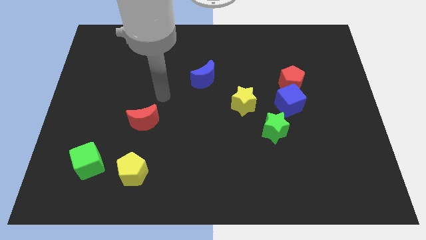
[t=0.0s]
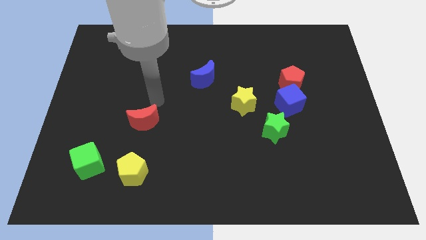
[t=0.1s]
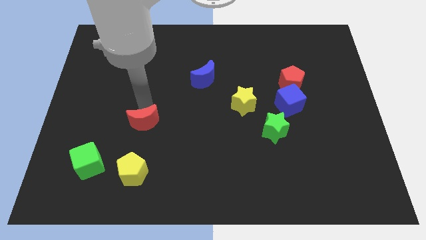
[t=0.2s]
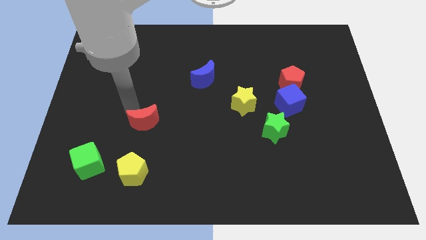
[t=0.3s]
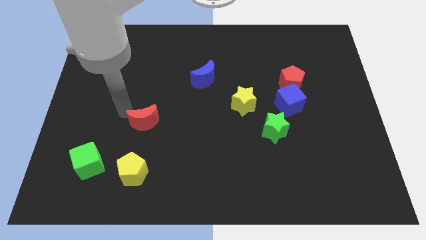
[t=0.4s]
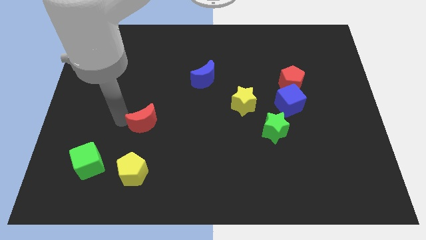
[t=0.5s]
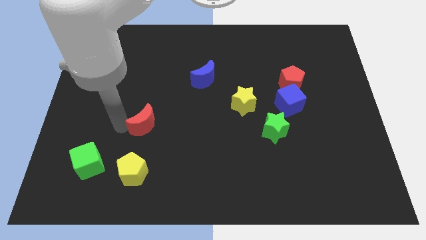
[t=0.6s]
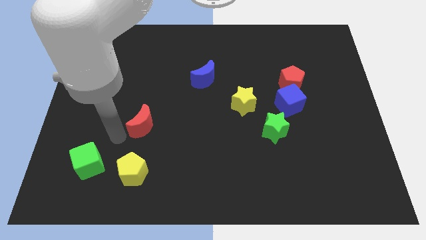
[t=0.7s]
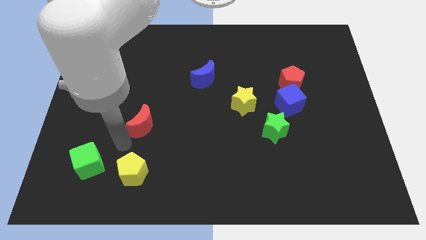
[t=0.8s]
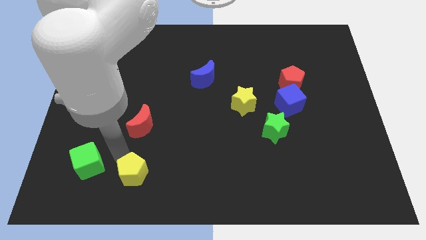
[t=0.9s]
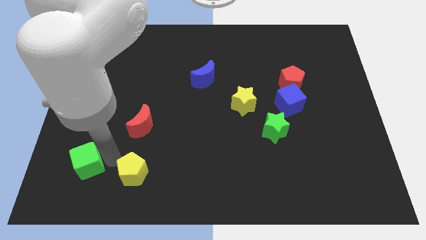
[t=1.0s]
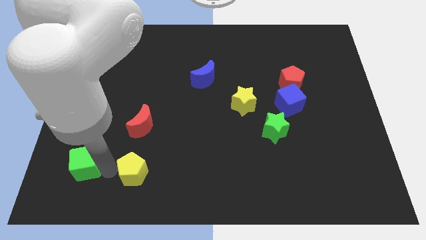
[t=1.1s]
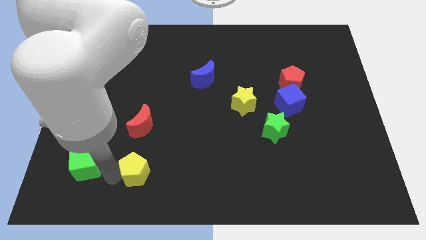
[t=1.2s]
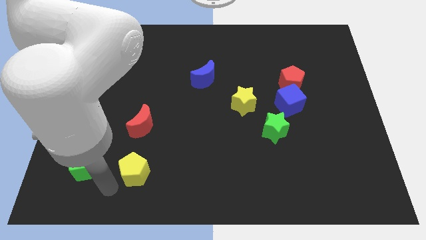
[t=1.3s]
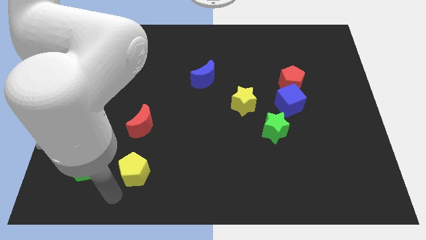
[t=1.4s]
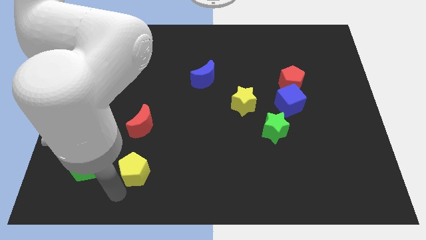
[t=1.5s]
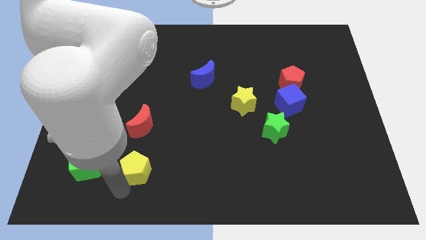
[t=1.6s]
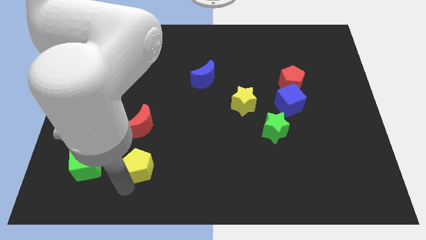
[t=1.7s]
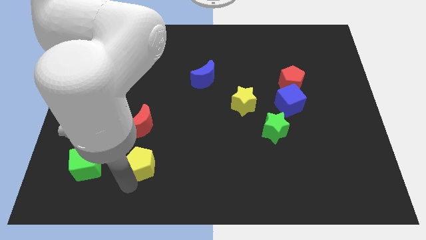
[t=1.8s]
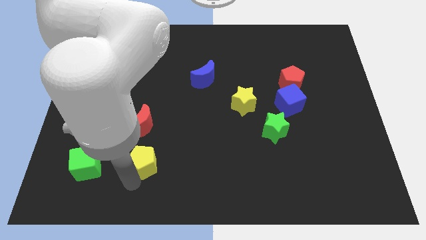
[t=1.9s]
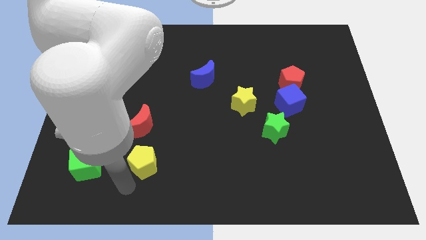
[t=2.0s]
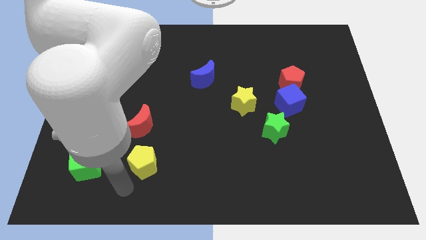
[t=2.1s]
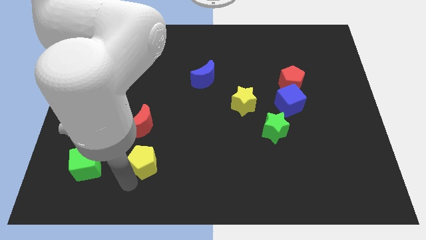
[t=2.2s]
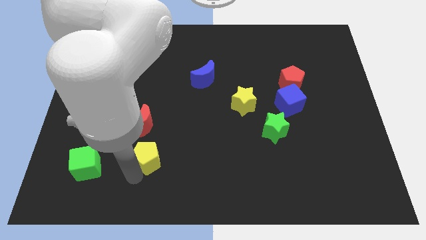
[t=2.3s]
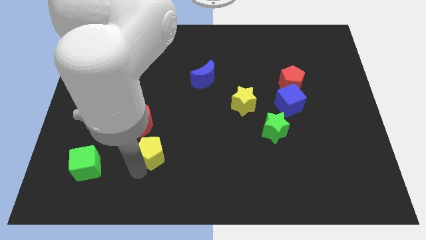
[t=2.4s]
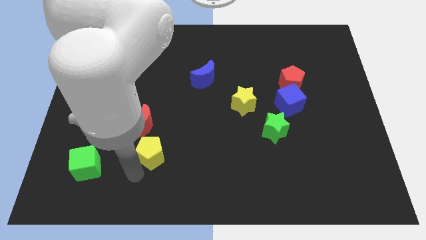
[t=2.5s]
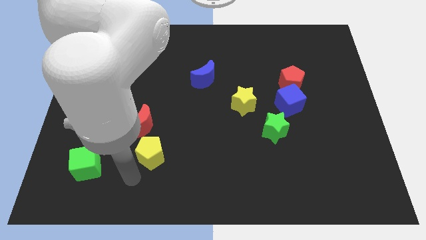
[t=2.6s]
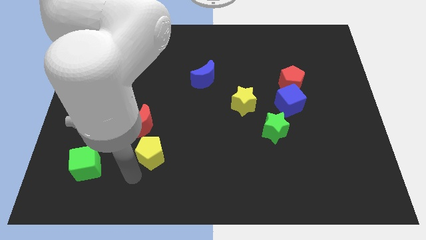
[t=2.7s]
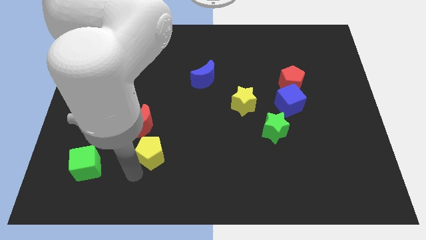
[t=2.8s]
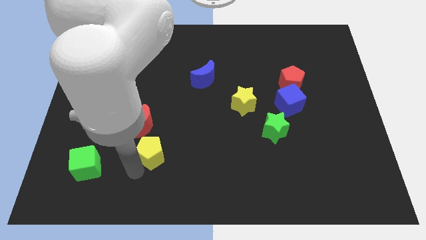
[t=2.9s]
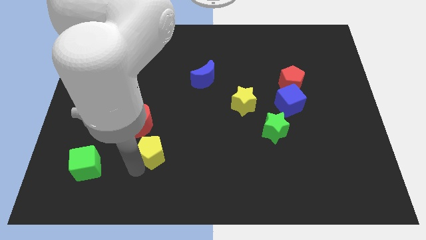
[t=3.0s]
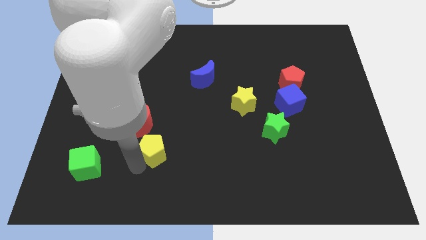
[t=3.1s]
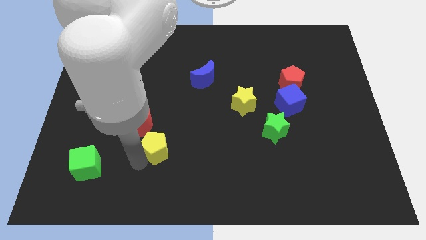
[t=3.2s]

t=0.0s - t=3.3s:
slightly push the yellow pentagon upwards and to the right

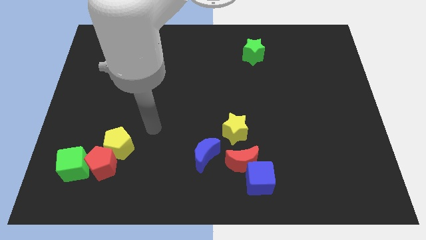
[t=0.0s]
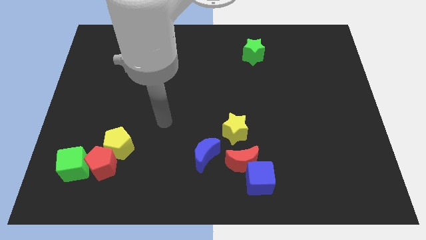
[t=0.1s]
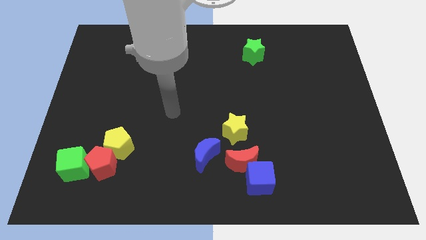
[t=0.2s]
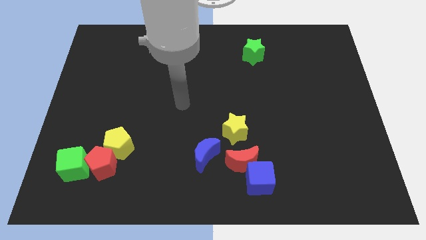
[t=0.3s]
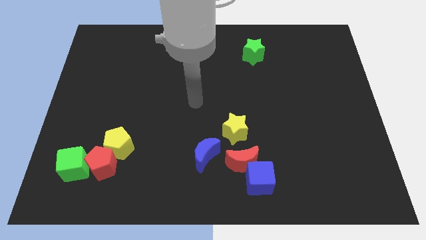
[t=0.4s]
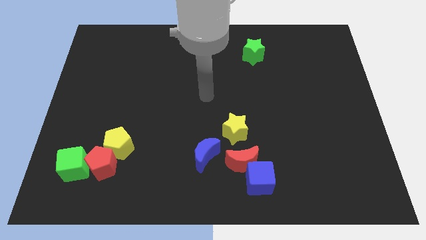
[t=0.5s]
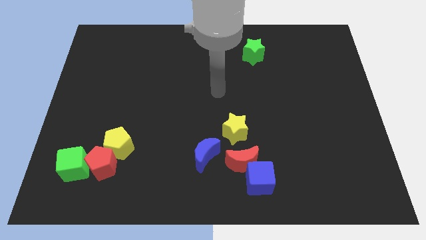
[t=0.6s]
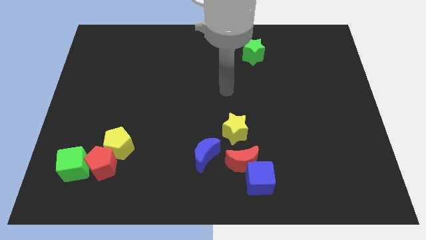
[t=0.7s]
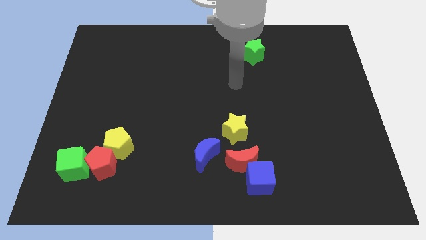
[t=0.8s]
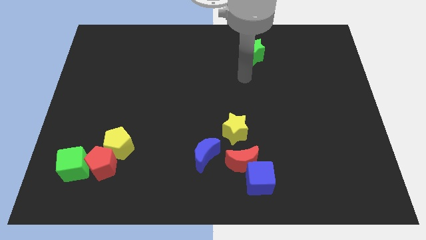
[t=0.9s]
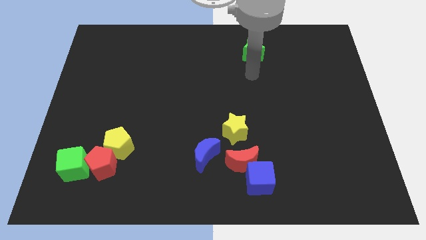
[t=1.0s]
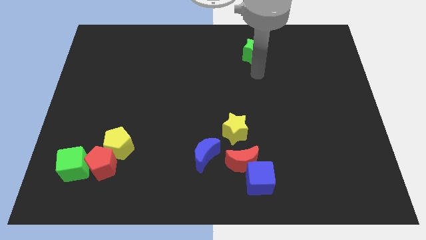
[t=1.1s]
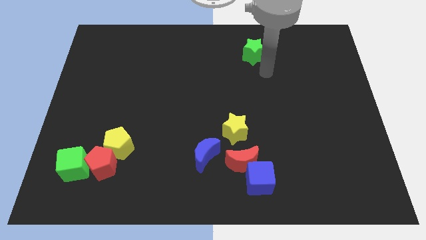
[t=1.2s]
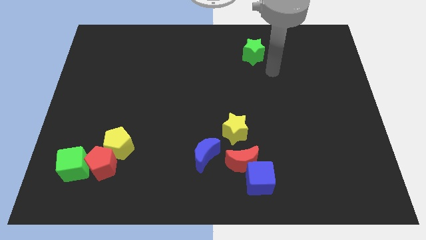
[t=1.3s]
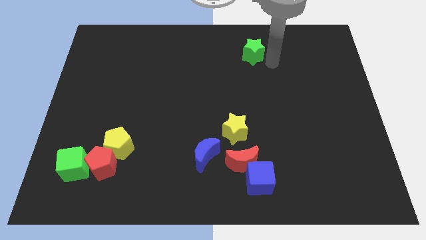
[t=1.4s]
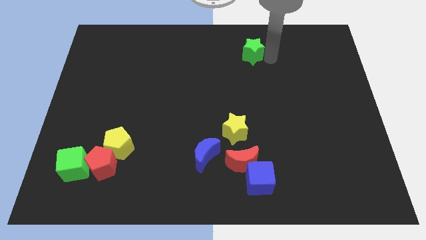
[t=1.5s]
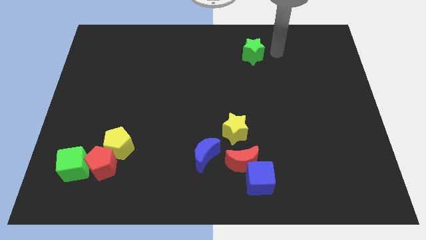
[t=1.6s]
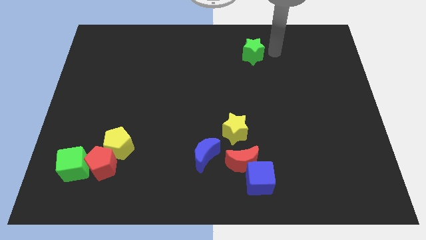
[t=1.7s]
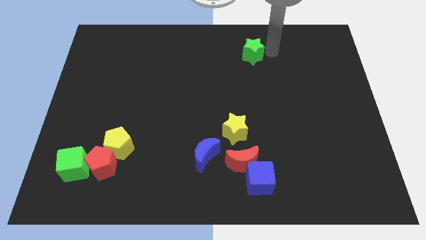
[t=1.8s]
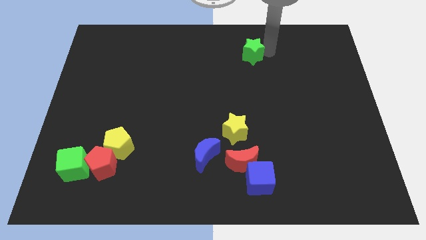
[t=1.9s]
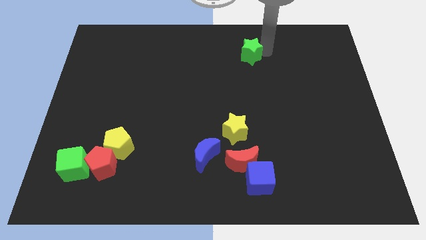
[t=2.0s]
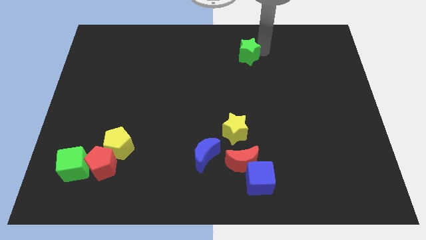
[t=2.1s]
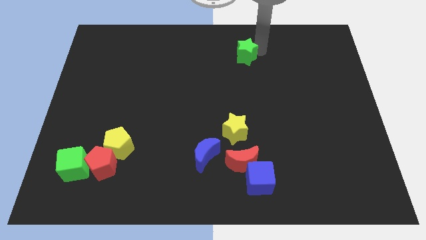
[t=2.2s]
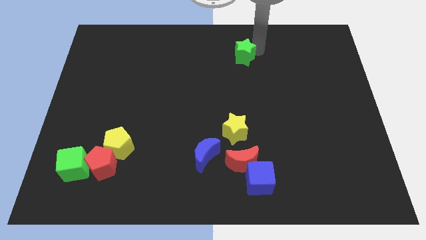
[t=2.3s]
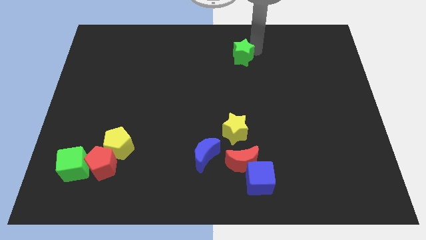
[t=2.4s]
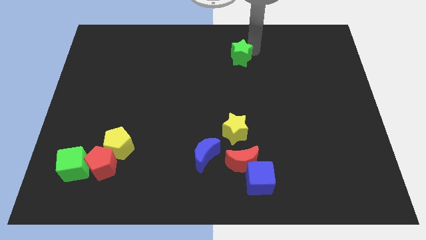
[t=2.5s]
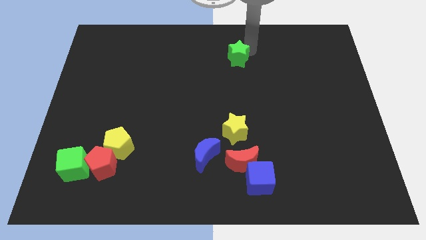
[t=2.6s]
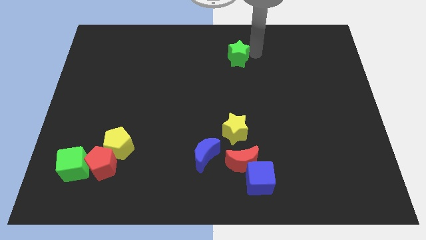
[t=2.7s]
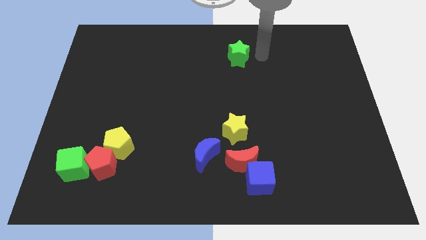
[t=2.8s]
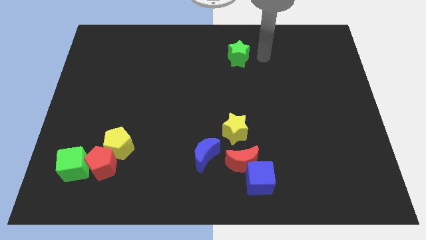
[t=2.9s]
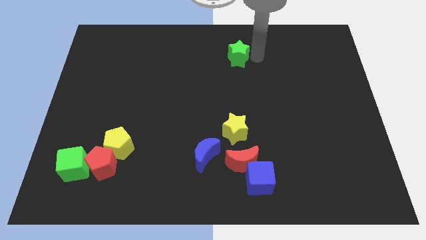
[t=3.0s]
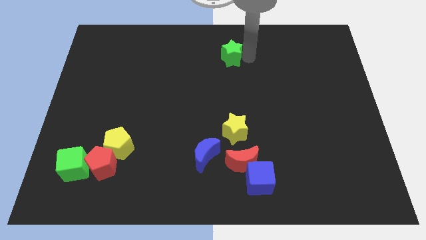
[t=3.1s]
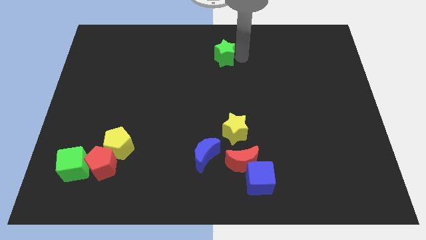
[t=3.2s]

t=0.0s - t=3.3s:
slightly push the green star left

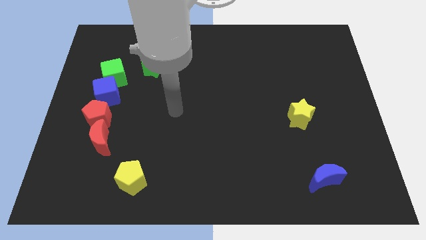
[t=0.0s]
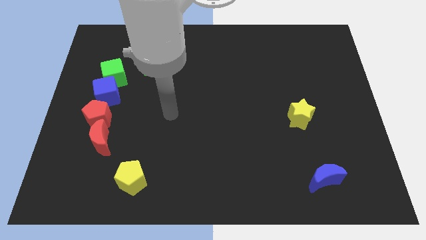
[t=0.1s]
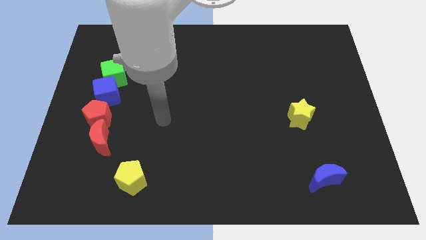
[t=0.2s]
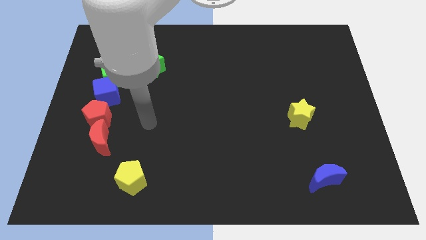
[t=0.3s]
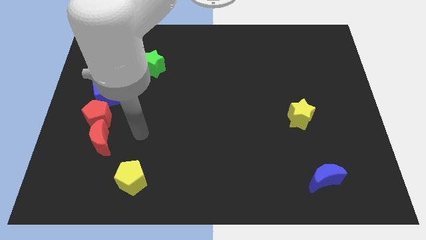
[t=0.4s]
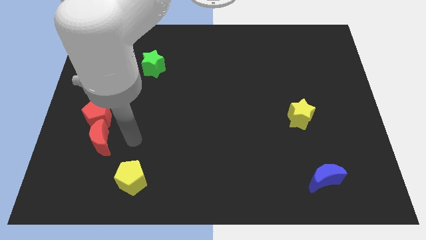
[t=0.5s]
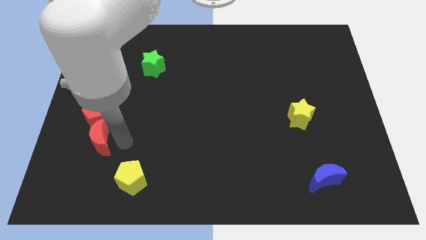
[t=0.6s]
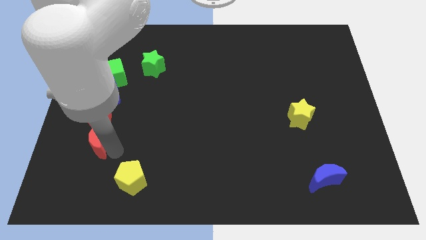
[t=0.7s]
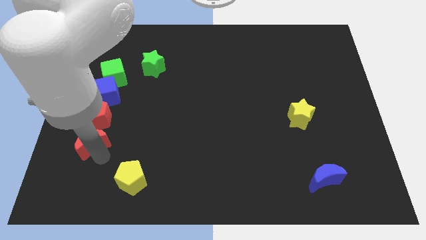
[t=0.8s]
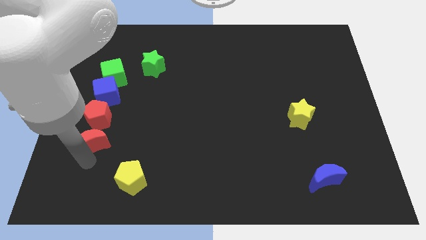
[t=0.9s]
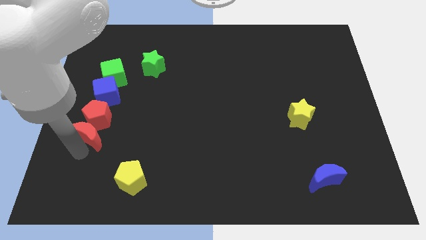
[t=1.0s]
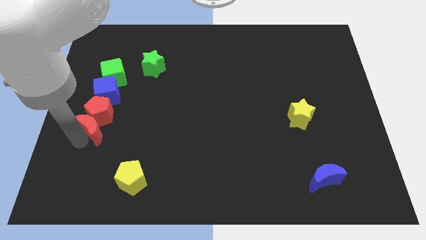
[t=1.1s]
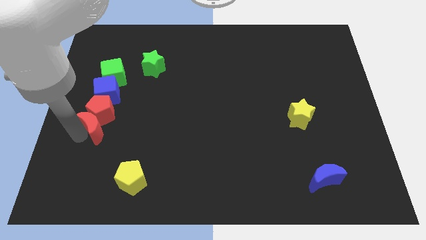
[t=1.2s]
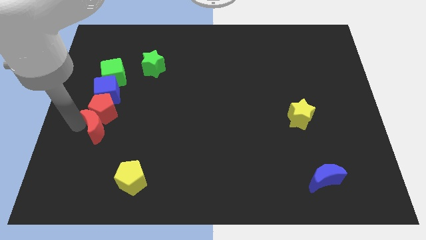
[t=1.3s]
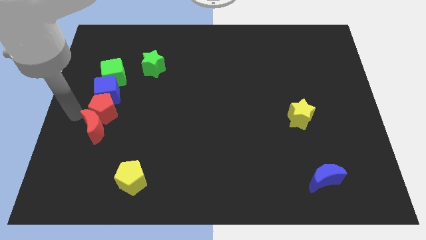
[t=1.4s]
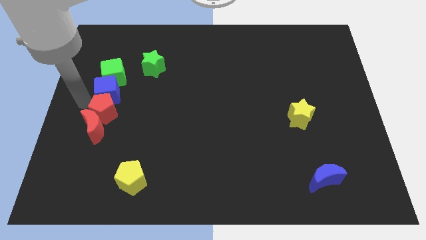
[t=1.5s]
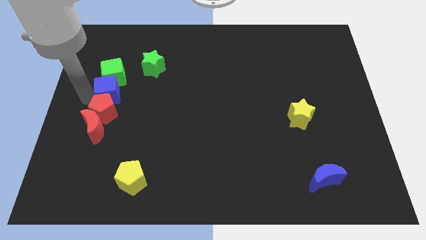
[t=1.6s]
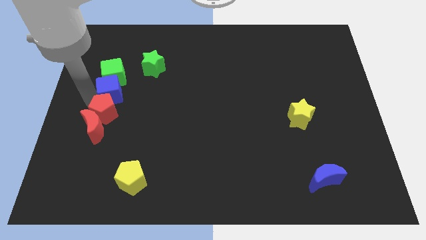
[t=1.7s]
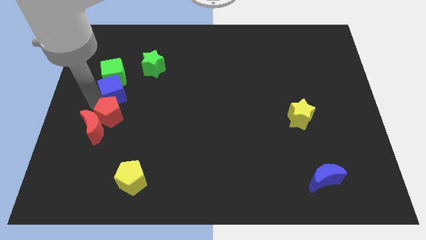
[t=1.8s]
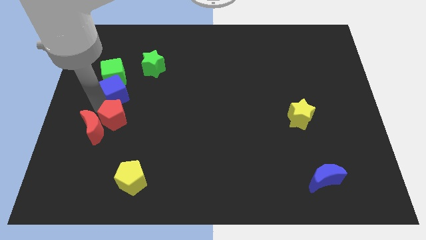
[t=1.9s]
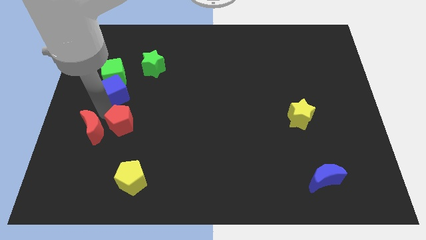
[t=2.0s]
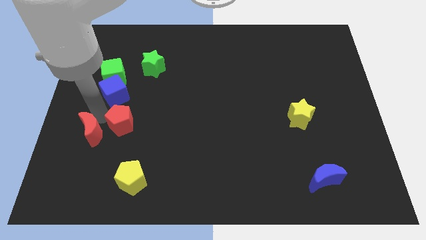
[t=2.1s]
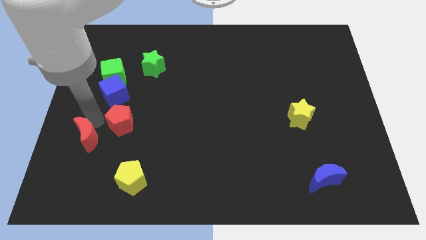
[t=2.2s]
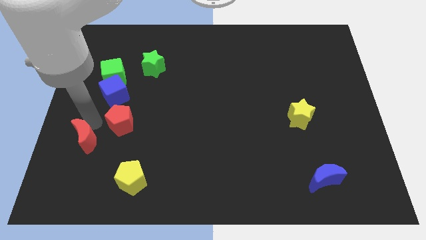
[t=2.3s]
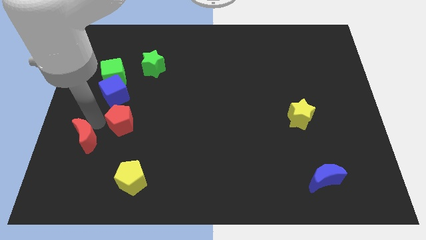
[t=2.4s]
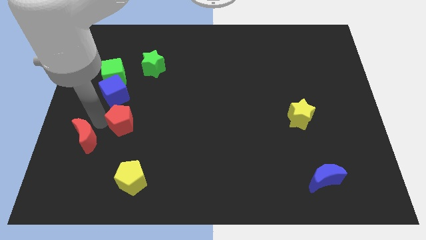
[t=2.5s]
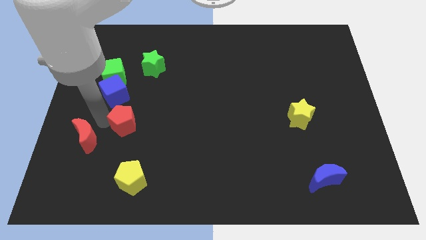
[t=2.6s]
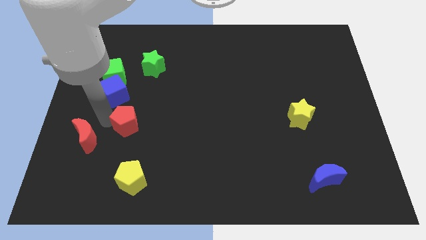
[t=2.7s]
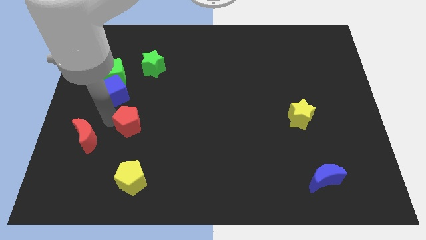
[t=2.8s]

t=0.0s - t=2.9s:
push the red pentagon a little right
